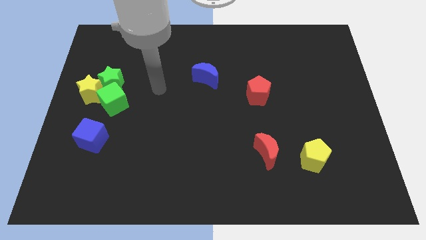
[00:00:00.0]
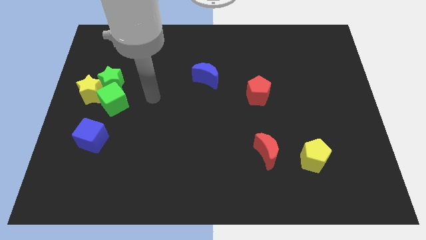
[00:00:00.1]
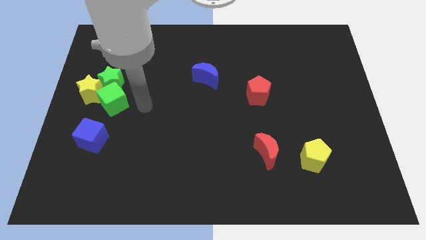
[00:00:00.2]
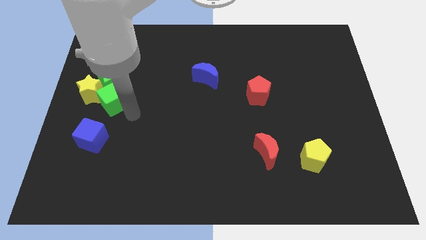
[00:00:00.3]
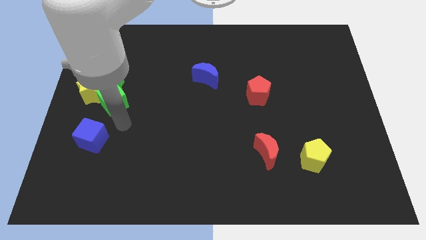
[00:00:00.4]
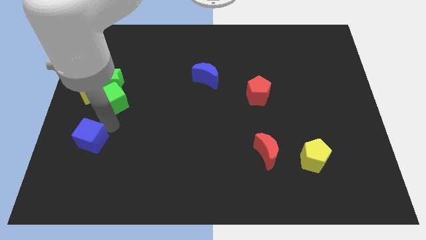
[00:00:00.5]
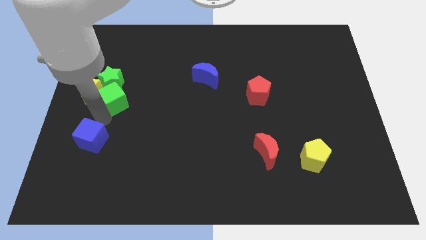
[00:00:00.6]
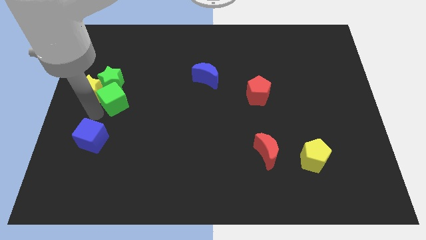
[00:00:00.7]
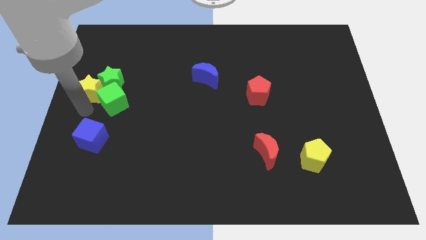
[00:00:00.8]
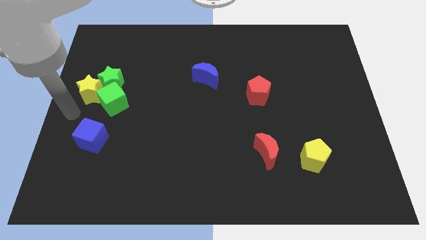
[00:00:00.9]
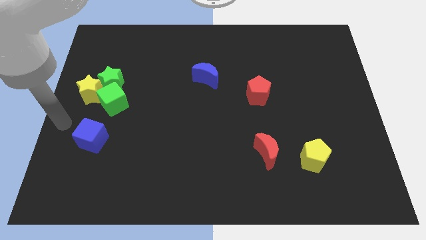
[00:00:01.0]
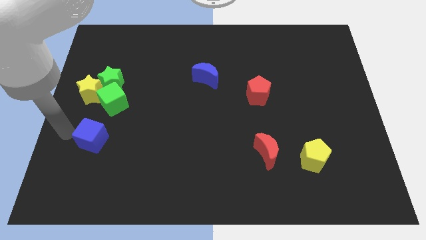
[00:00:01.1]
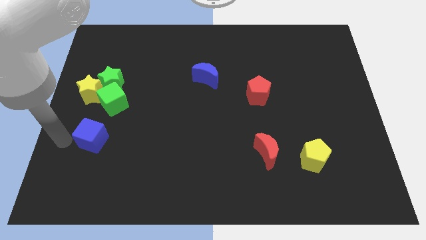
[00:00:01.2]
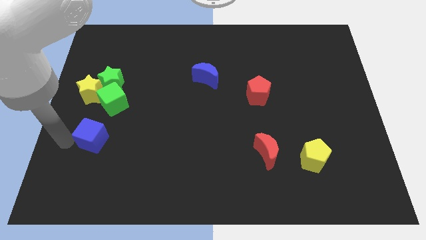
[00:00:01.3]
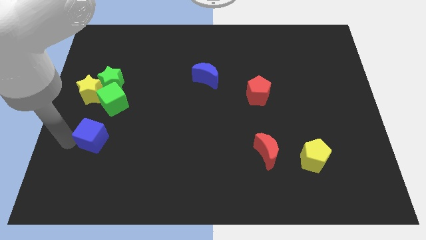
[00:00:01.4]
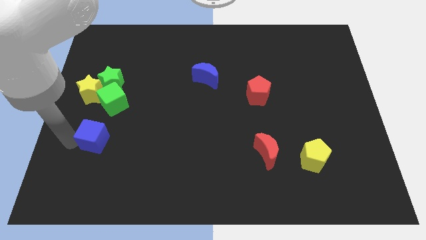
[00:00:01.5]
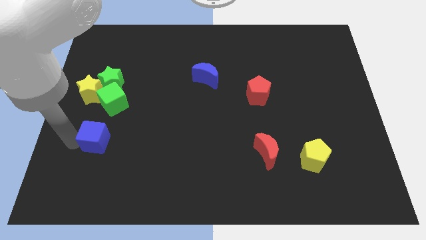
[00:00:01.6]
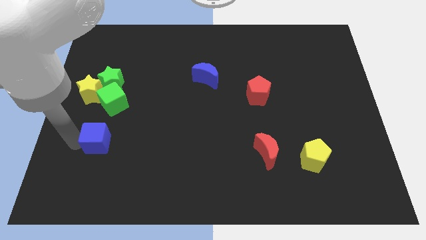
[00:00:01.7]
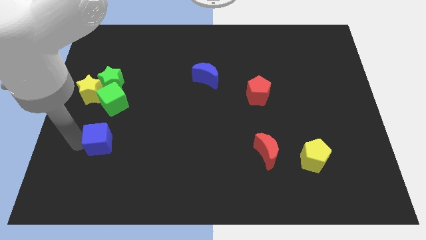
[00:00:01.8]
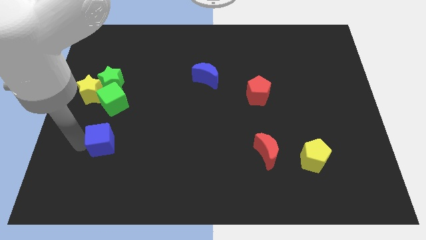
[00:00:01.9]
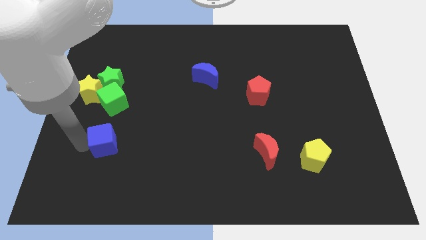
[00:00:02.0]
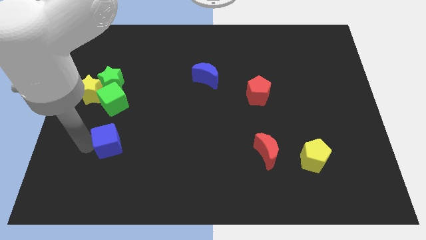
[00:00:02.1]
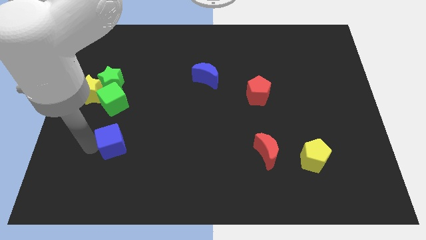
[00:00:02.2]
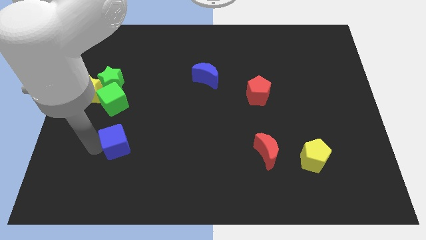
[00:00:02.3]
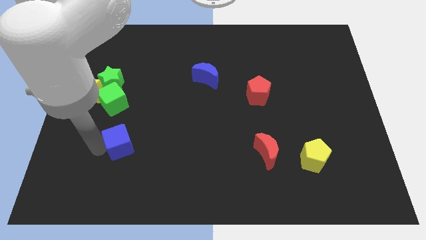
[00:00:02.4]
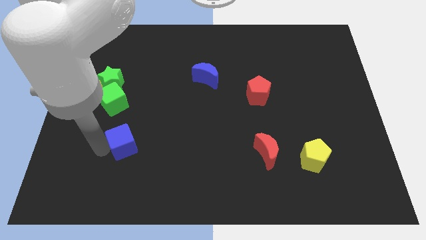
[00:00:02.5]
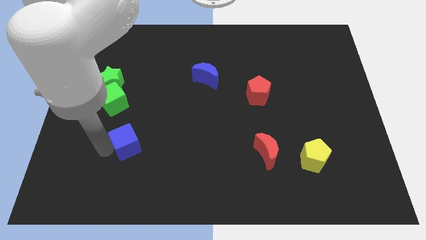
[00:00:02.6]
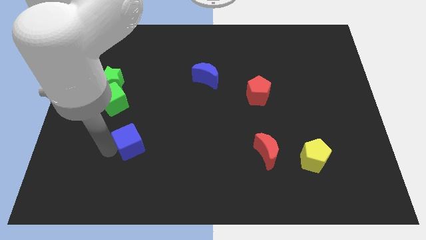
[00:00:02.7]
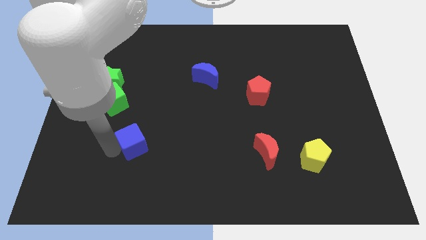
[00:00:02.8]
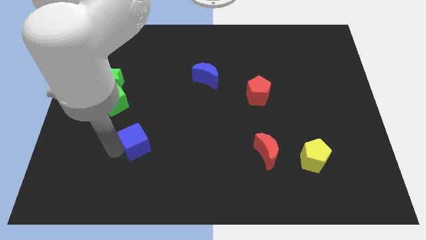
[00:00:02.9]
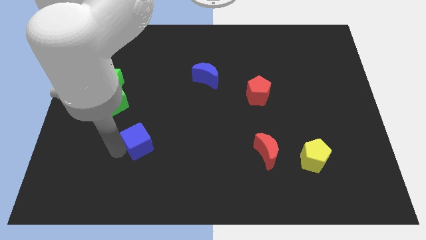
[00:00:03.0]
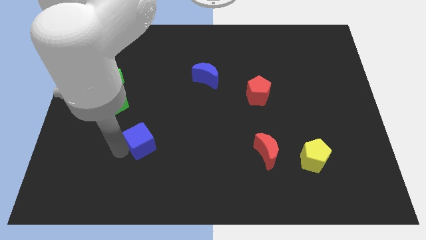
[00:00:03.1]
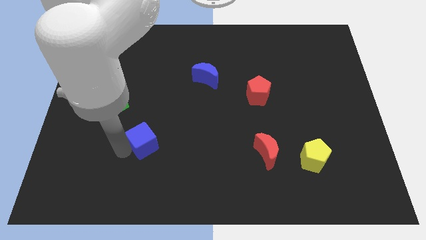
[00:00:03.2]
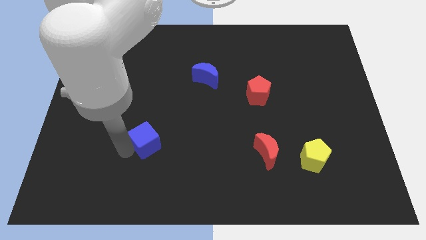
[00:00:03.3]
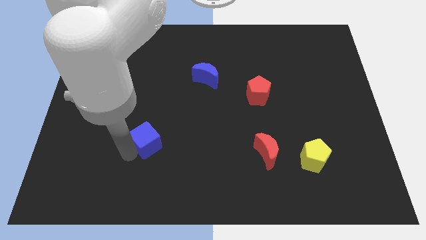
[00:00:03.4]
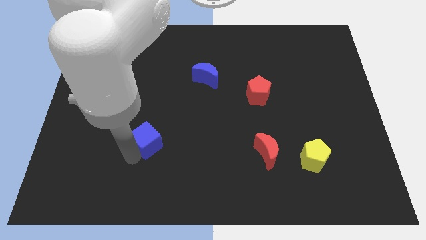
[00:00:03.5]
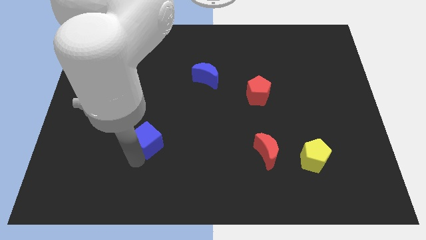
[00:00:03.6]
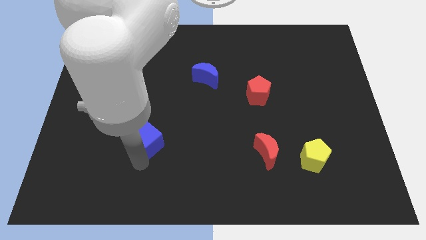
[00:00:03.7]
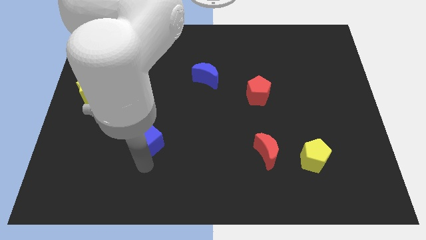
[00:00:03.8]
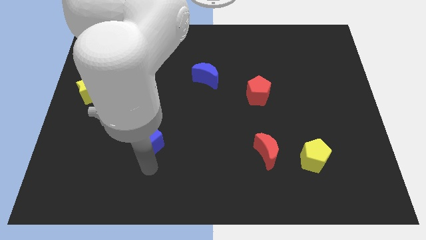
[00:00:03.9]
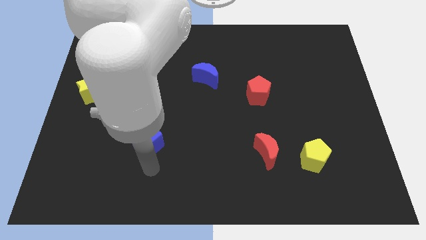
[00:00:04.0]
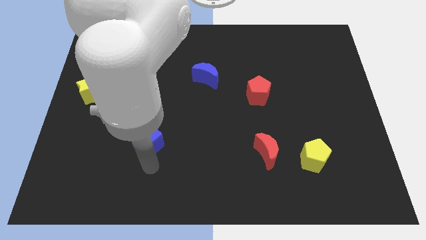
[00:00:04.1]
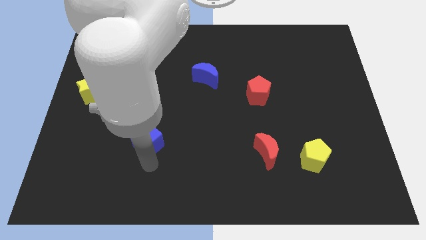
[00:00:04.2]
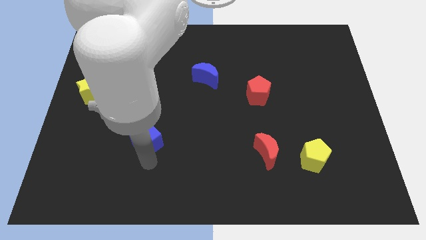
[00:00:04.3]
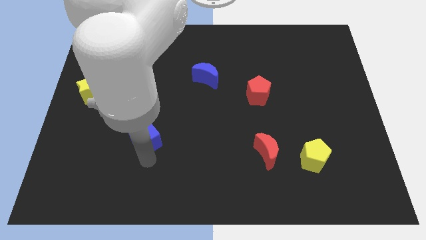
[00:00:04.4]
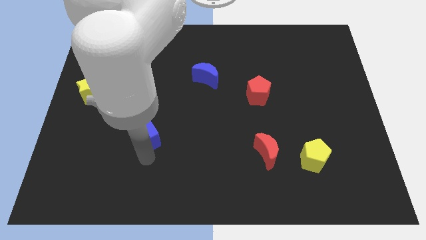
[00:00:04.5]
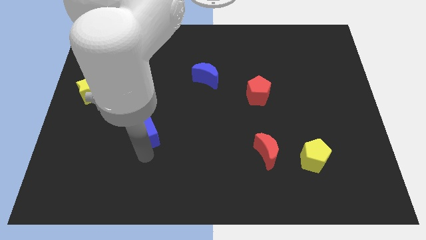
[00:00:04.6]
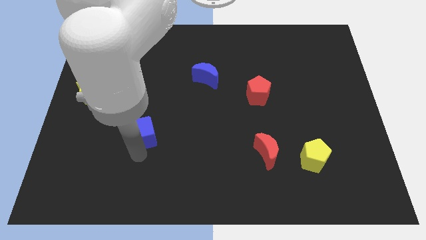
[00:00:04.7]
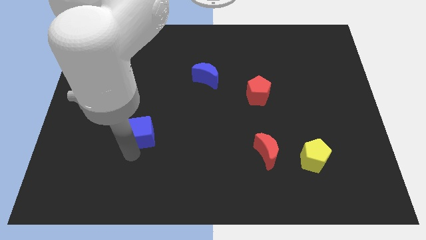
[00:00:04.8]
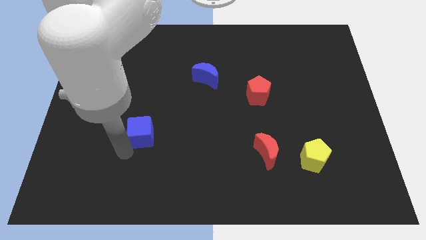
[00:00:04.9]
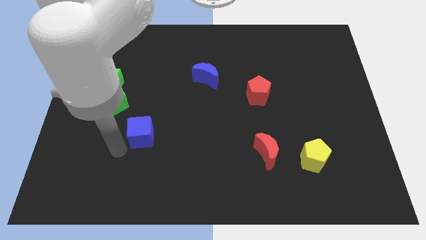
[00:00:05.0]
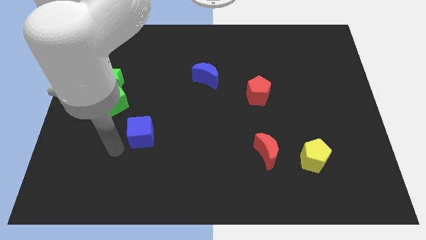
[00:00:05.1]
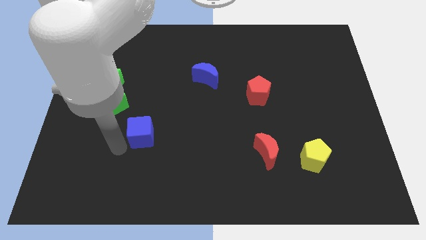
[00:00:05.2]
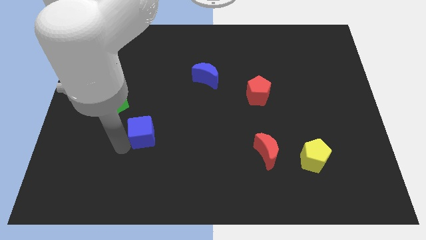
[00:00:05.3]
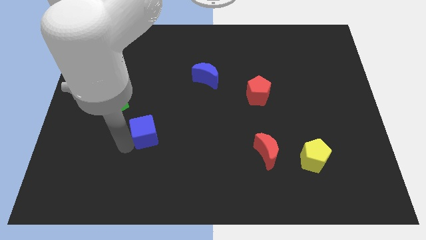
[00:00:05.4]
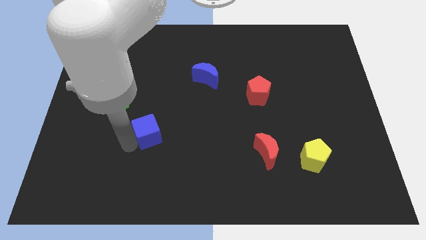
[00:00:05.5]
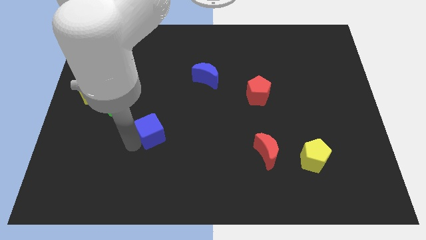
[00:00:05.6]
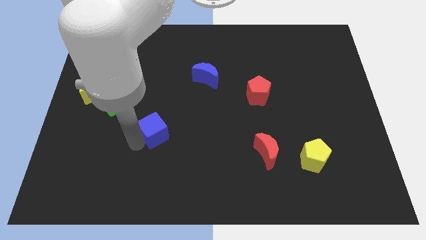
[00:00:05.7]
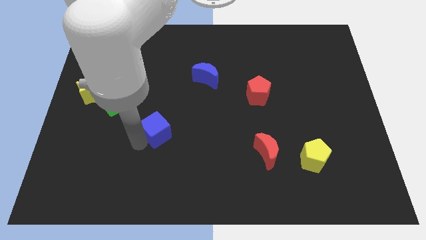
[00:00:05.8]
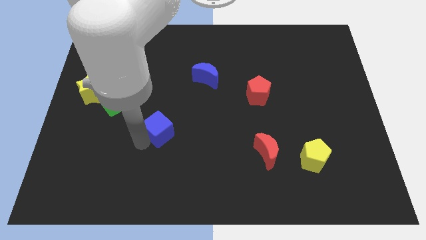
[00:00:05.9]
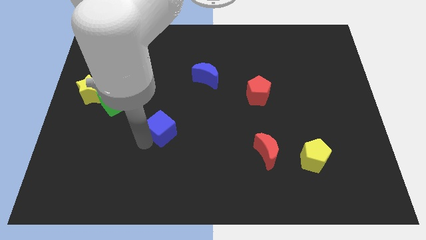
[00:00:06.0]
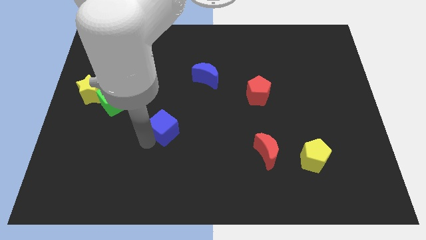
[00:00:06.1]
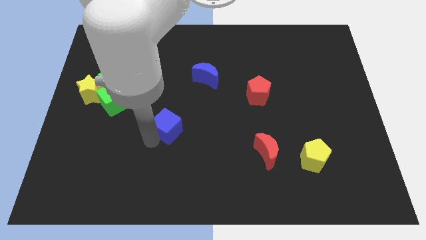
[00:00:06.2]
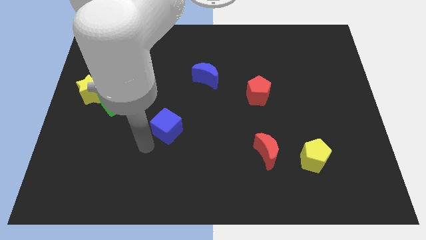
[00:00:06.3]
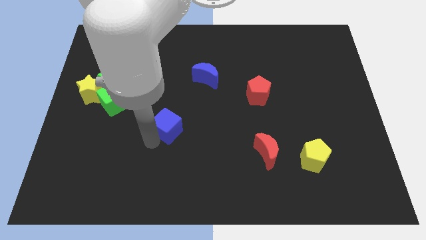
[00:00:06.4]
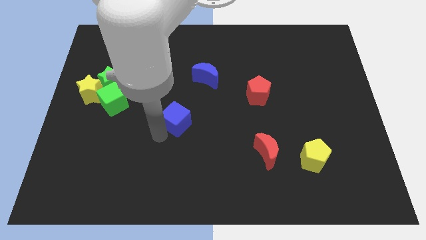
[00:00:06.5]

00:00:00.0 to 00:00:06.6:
push the blue cube to the middle of the board
